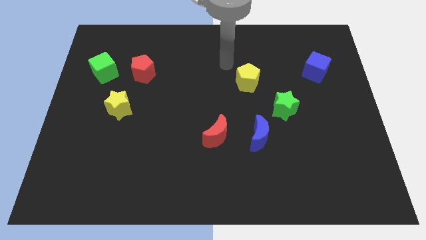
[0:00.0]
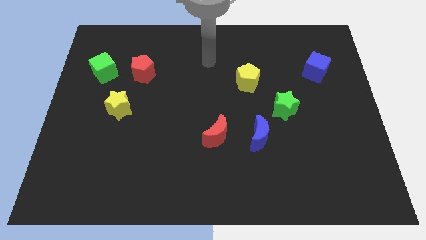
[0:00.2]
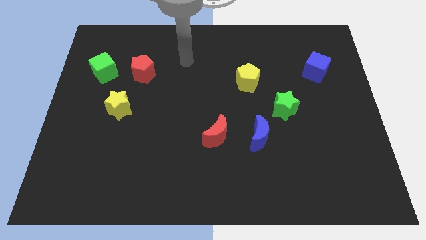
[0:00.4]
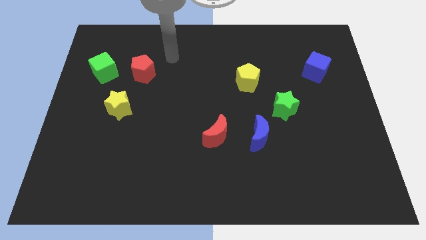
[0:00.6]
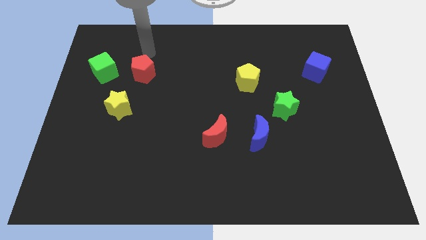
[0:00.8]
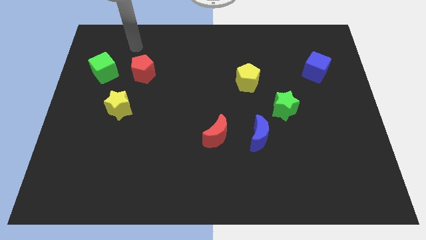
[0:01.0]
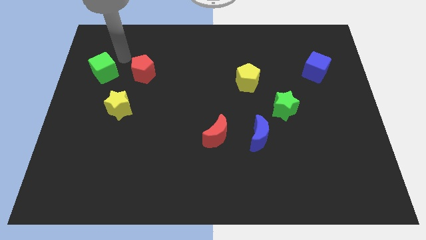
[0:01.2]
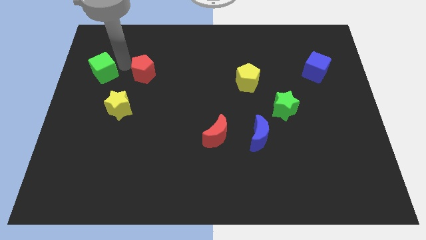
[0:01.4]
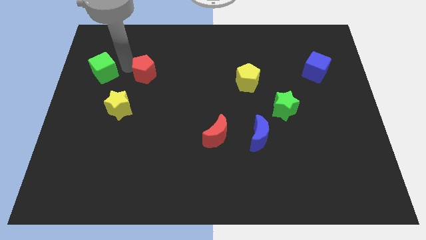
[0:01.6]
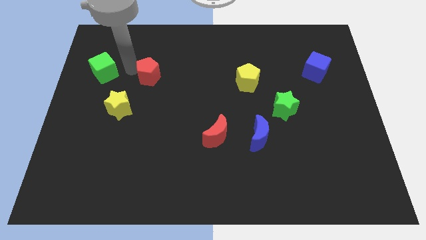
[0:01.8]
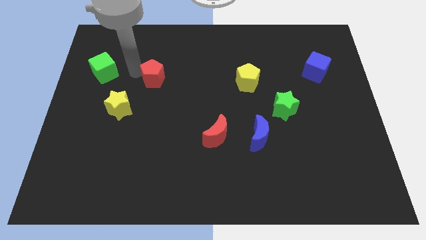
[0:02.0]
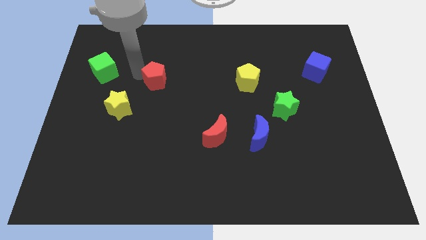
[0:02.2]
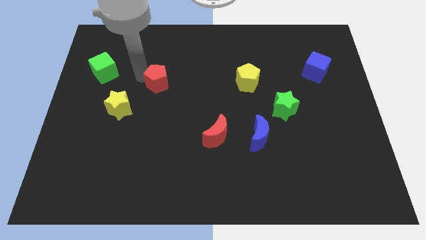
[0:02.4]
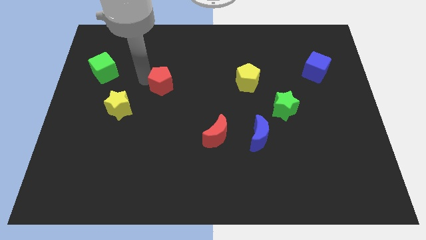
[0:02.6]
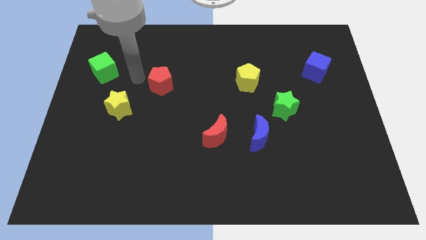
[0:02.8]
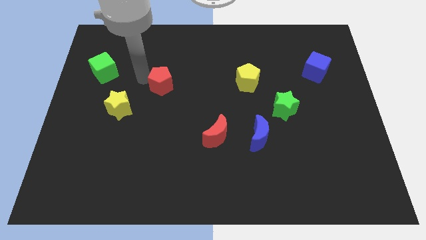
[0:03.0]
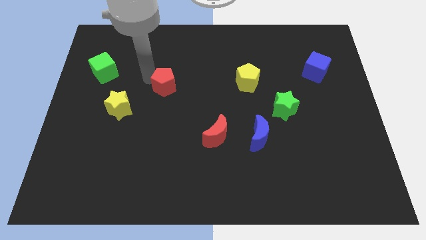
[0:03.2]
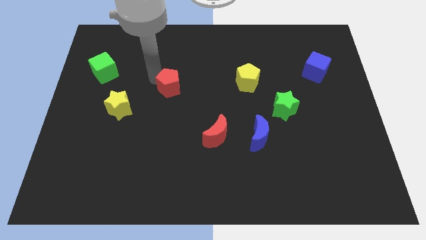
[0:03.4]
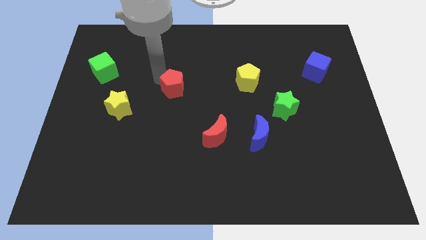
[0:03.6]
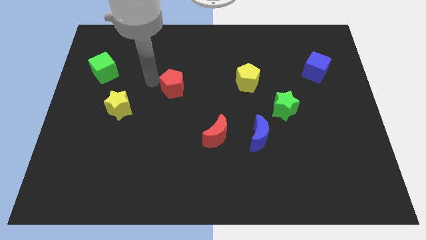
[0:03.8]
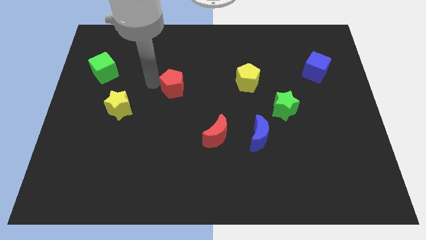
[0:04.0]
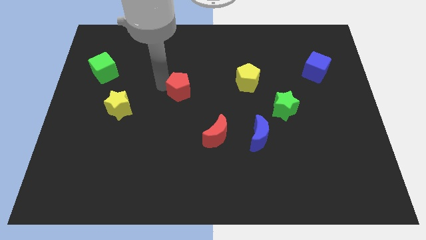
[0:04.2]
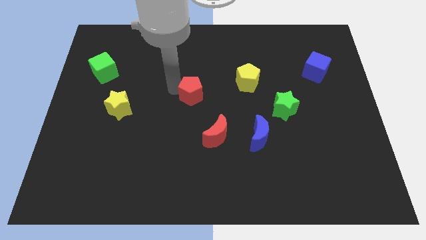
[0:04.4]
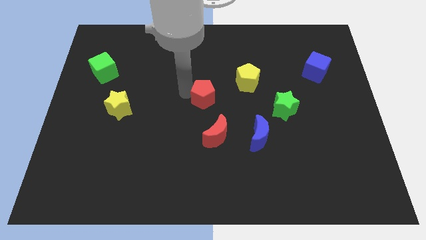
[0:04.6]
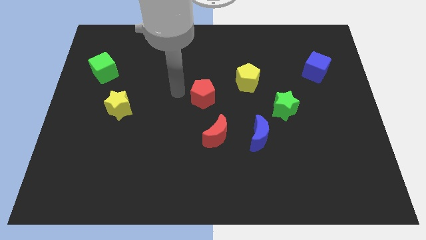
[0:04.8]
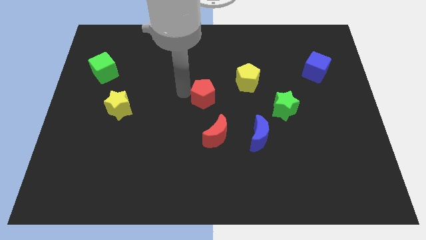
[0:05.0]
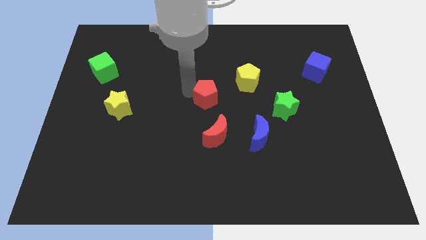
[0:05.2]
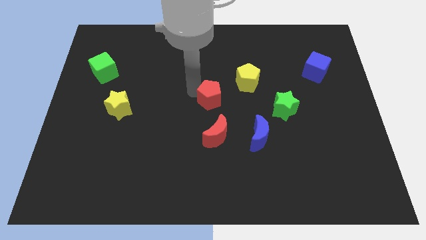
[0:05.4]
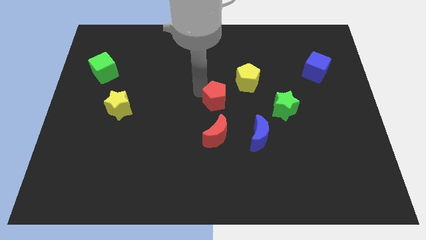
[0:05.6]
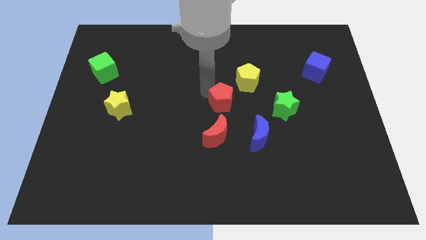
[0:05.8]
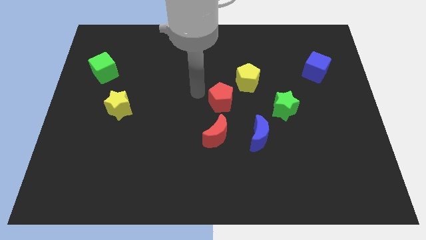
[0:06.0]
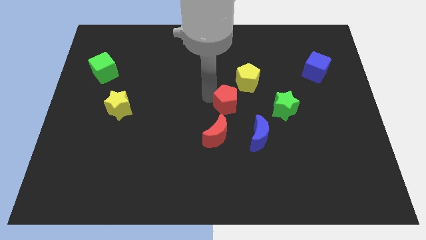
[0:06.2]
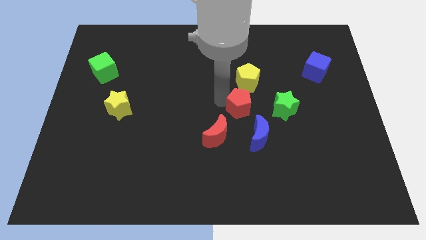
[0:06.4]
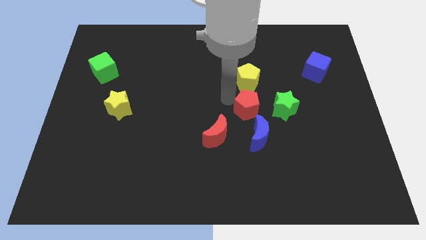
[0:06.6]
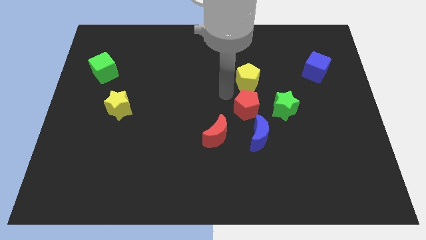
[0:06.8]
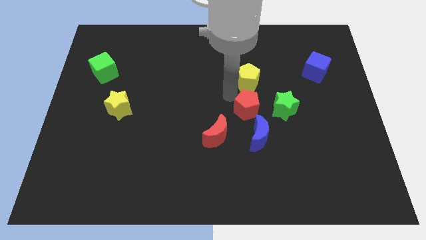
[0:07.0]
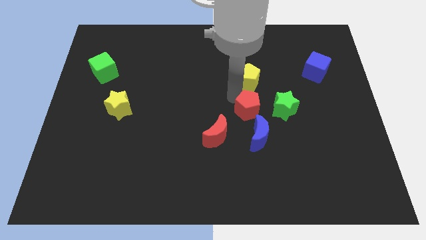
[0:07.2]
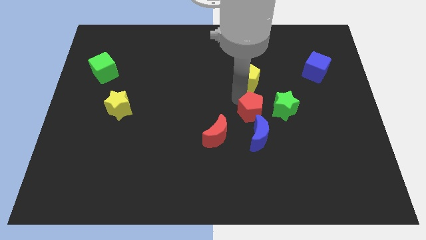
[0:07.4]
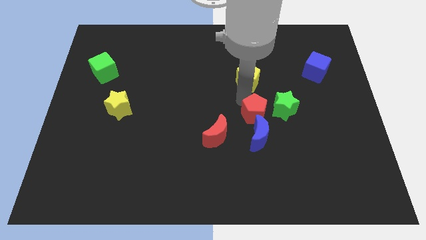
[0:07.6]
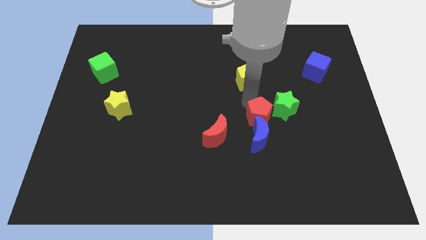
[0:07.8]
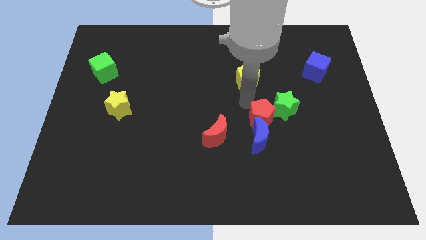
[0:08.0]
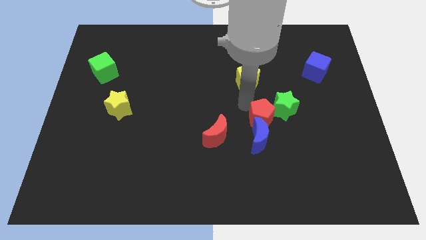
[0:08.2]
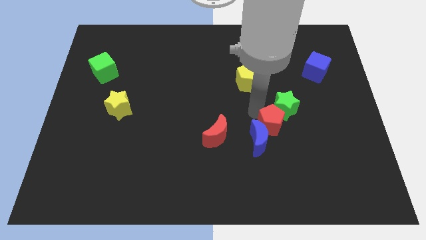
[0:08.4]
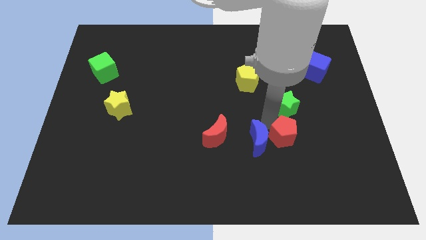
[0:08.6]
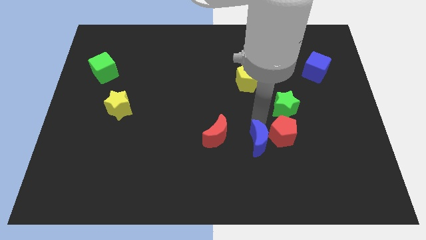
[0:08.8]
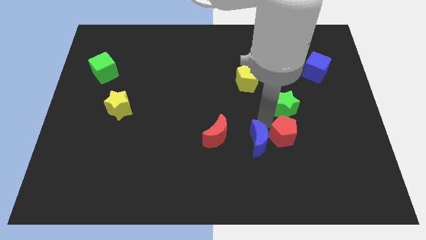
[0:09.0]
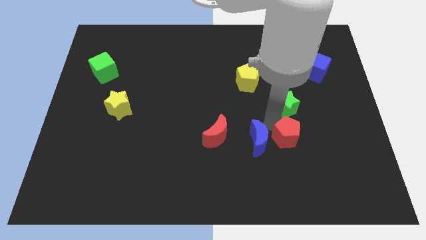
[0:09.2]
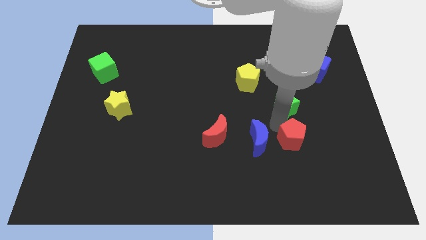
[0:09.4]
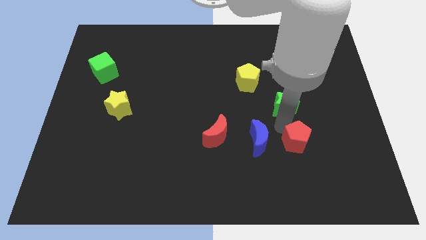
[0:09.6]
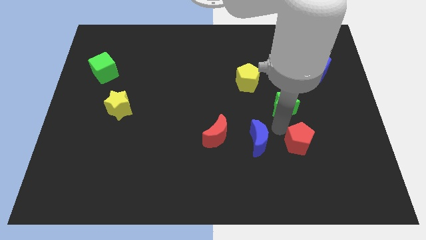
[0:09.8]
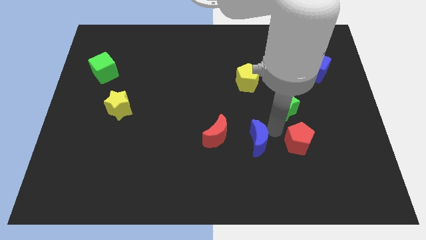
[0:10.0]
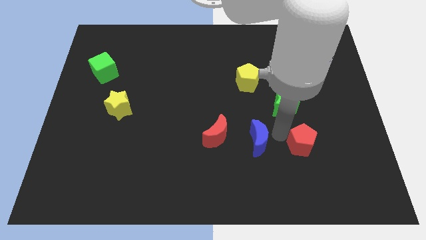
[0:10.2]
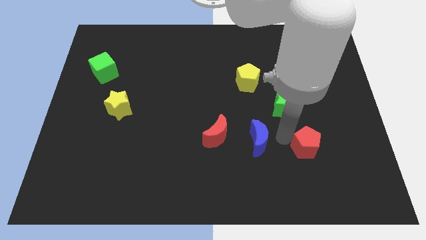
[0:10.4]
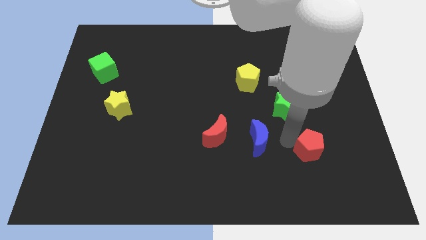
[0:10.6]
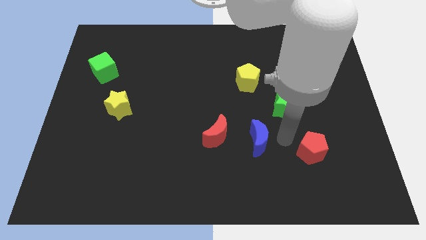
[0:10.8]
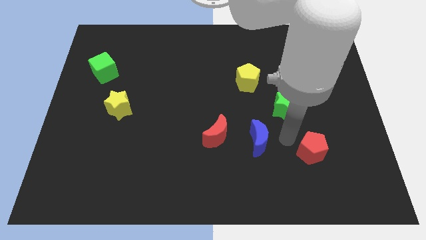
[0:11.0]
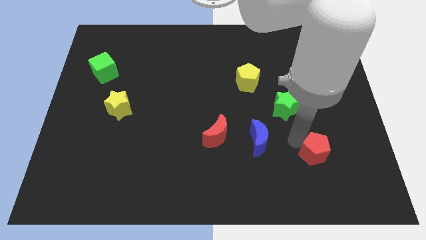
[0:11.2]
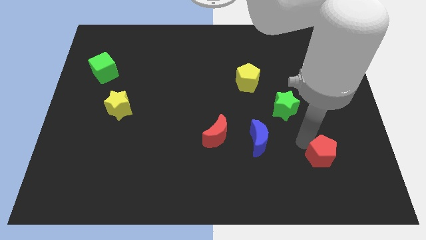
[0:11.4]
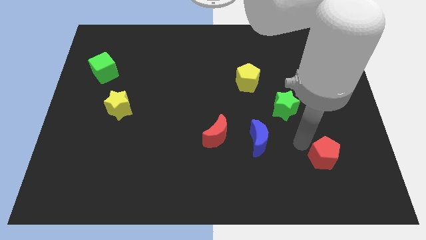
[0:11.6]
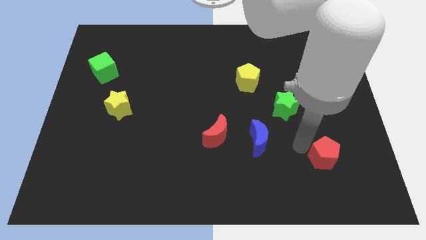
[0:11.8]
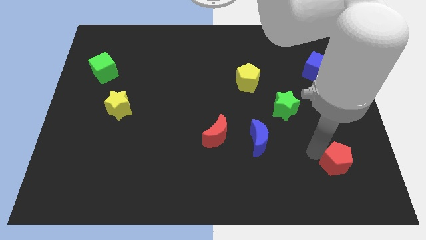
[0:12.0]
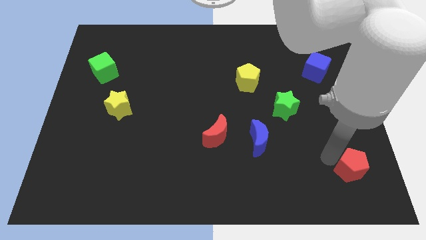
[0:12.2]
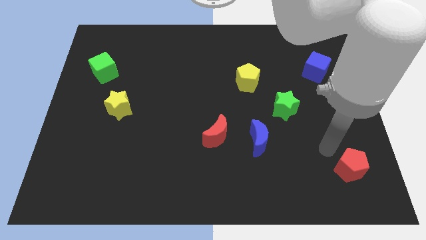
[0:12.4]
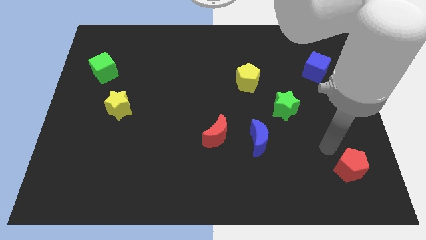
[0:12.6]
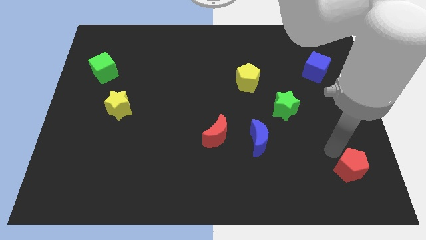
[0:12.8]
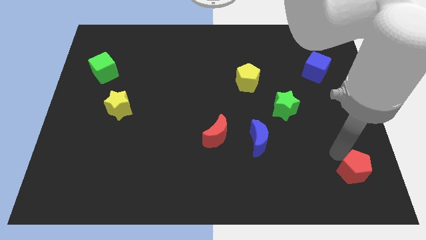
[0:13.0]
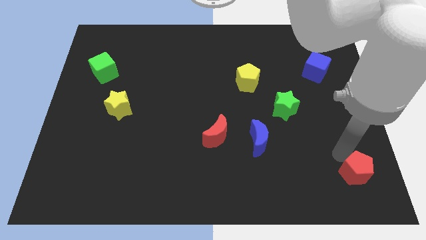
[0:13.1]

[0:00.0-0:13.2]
slide the red pentagon to the bottom right corner
